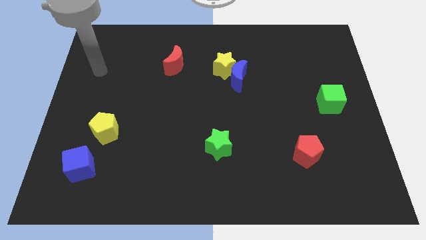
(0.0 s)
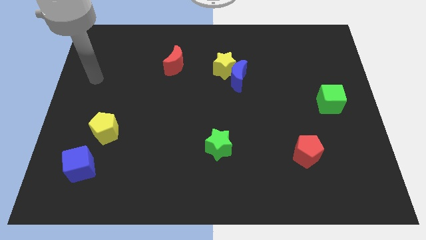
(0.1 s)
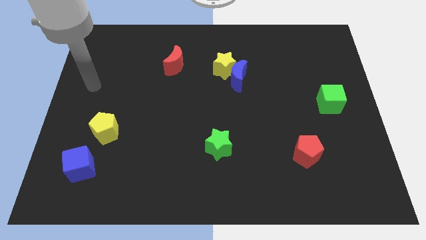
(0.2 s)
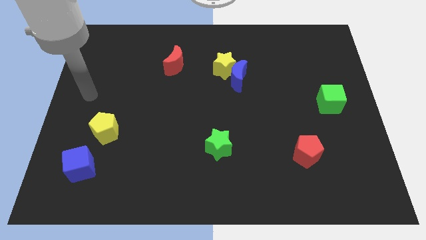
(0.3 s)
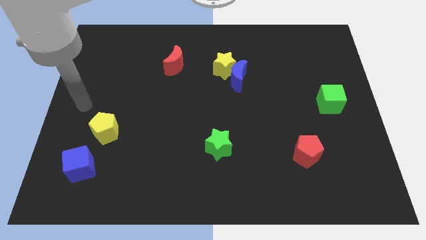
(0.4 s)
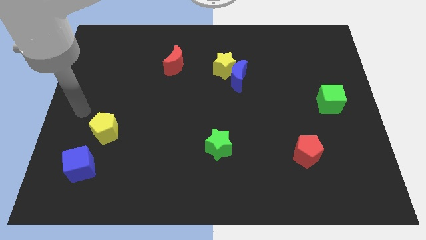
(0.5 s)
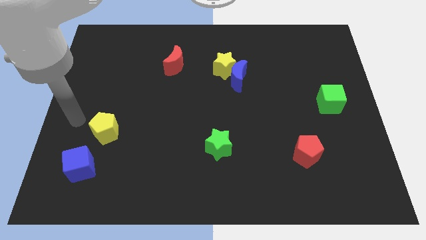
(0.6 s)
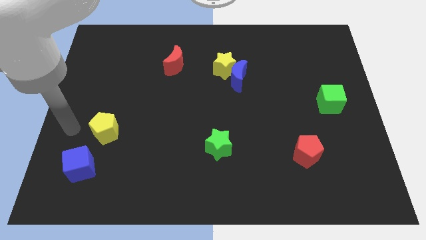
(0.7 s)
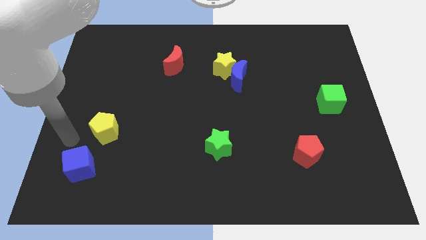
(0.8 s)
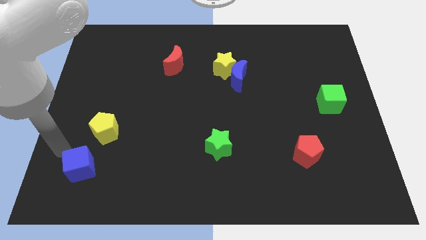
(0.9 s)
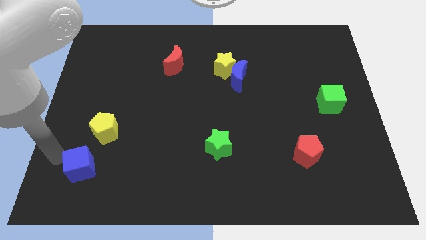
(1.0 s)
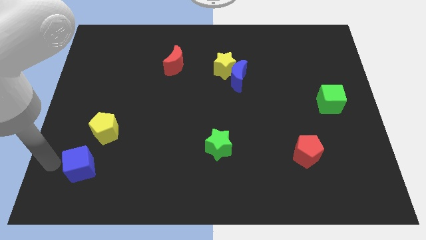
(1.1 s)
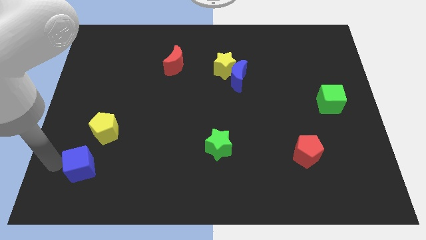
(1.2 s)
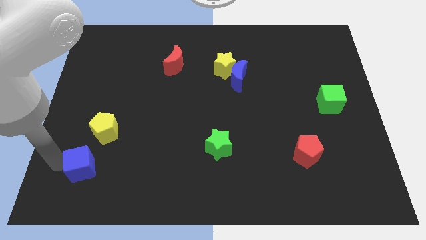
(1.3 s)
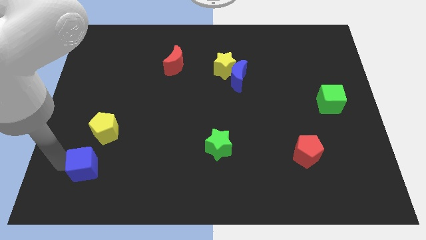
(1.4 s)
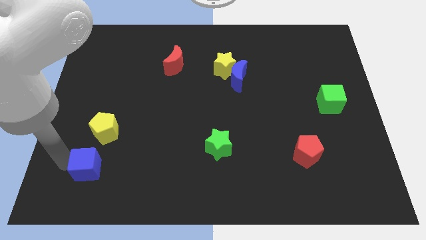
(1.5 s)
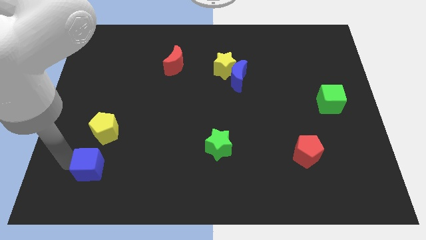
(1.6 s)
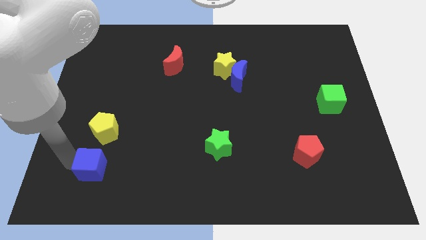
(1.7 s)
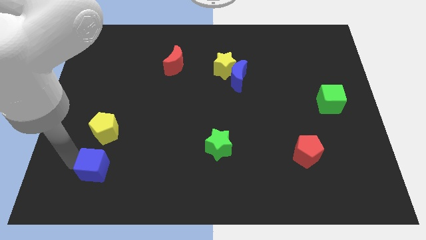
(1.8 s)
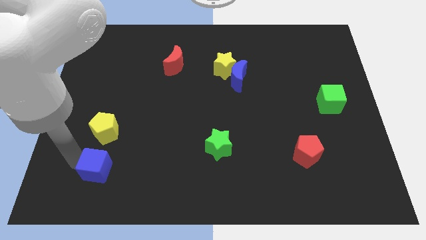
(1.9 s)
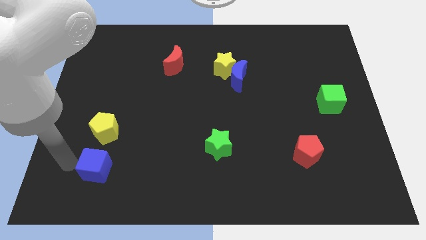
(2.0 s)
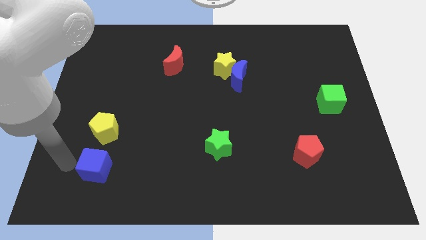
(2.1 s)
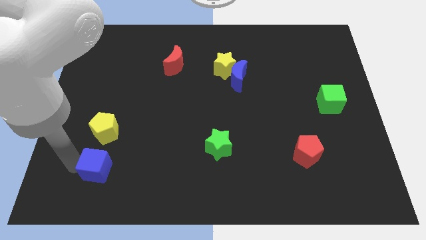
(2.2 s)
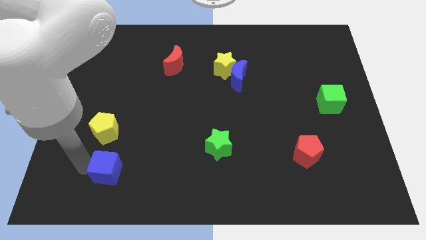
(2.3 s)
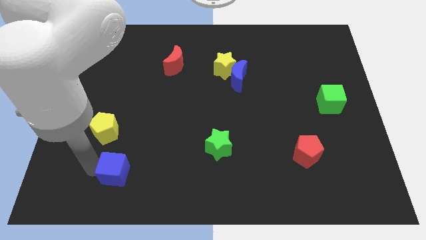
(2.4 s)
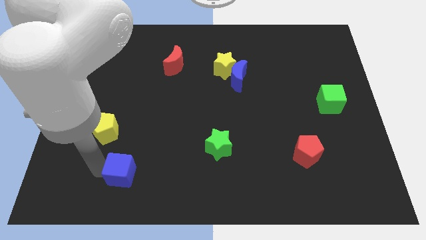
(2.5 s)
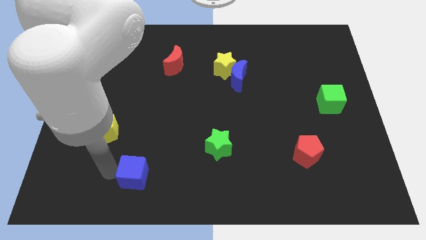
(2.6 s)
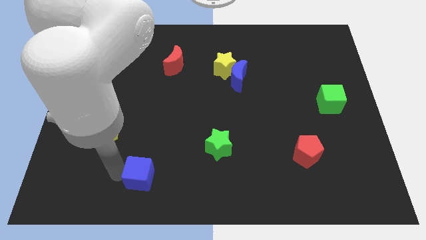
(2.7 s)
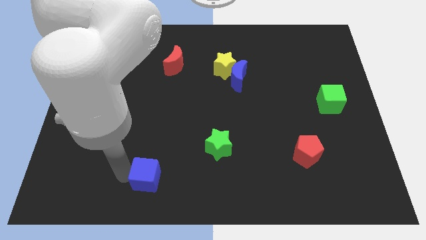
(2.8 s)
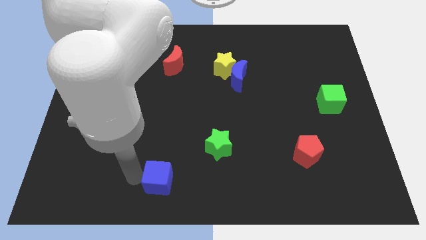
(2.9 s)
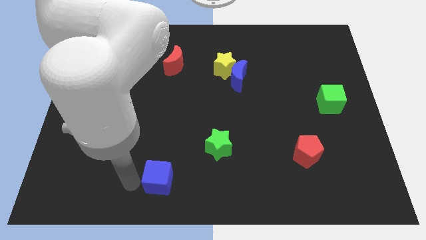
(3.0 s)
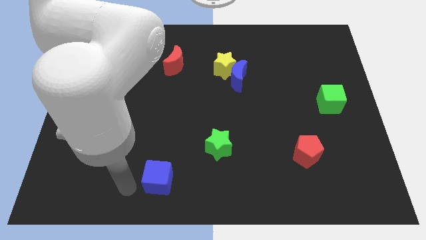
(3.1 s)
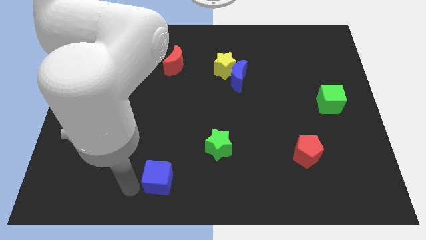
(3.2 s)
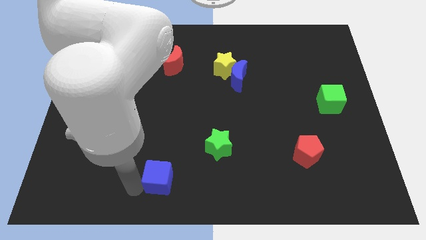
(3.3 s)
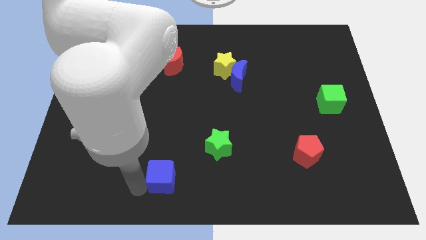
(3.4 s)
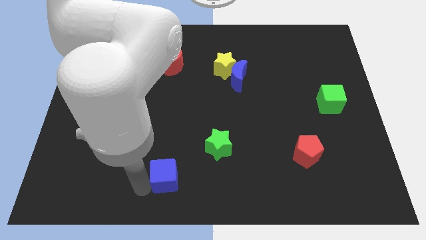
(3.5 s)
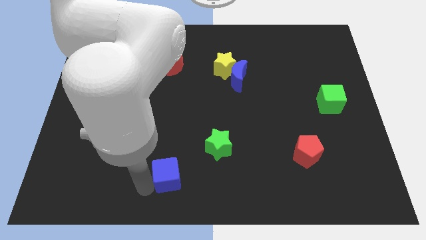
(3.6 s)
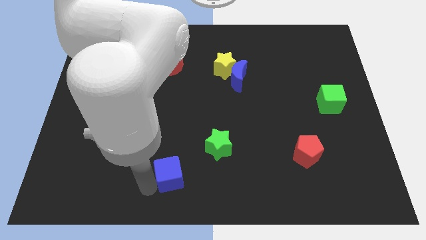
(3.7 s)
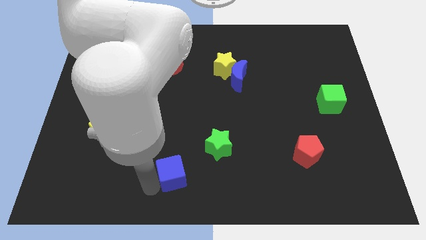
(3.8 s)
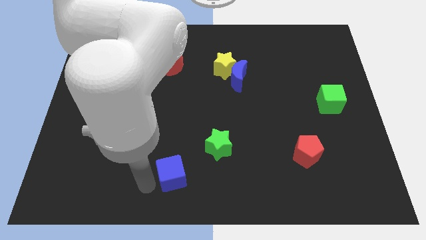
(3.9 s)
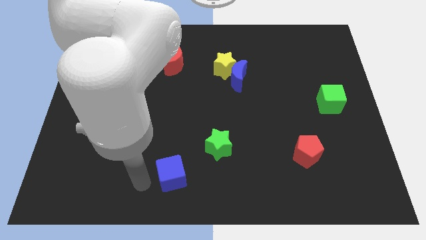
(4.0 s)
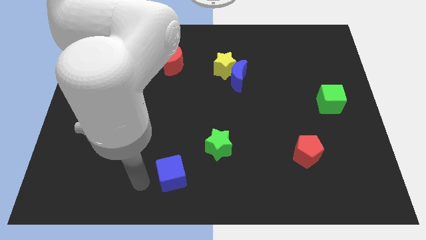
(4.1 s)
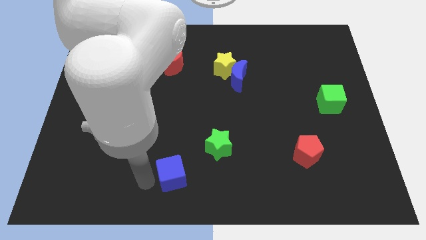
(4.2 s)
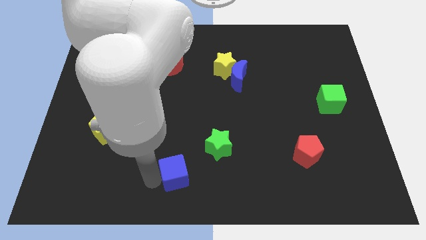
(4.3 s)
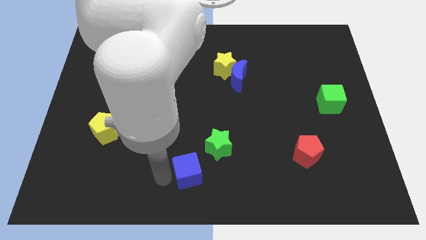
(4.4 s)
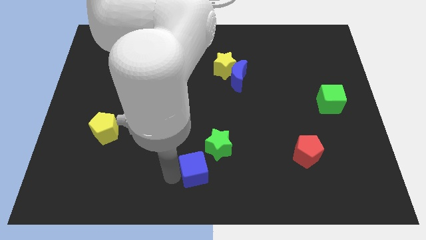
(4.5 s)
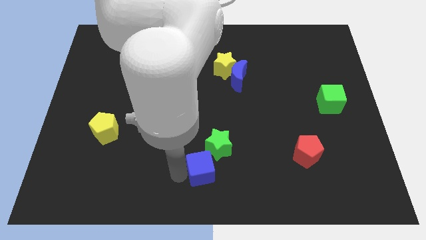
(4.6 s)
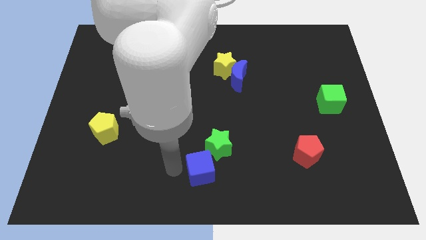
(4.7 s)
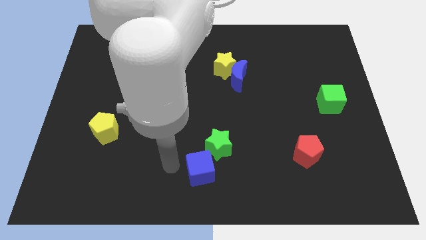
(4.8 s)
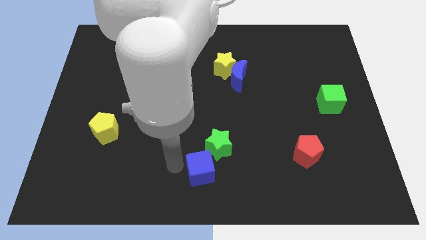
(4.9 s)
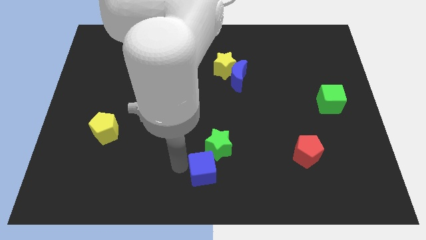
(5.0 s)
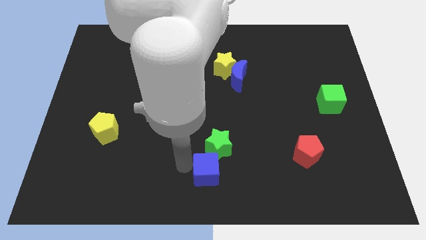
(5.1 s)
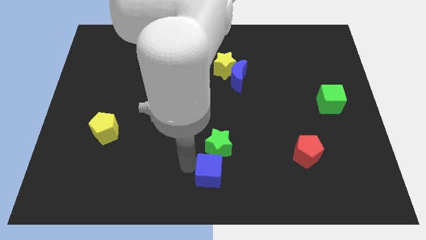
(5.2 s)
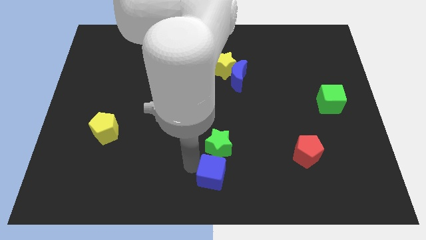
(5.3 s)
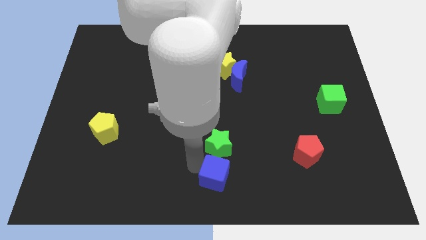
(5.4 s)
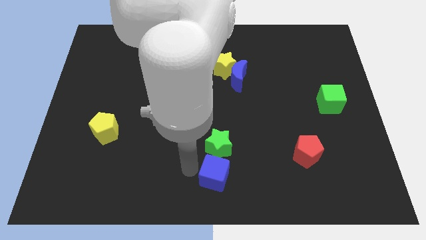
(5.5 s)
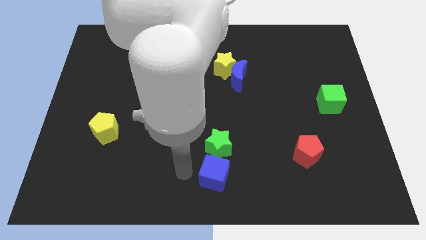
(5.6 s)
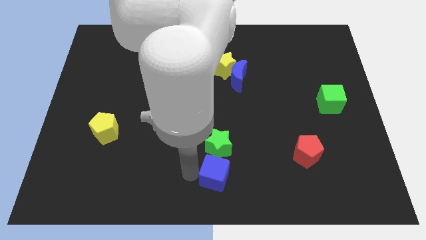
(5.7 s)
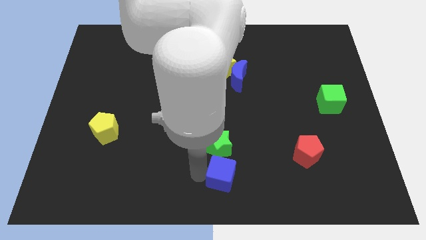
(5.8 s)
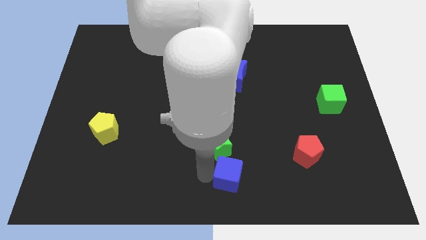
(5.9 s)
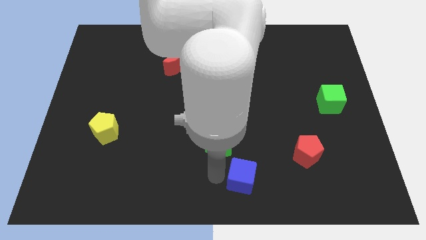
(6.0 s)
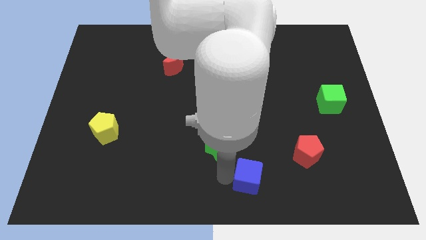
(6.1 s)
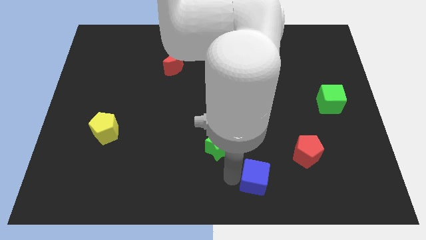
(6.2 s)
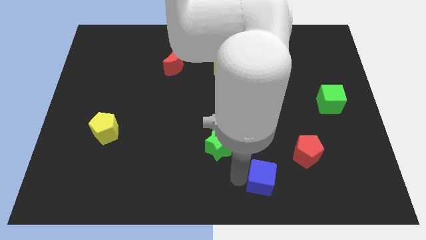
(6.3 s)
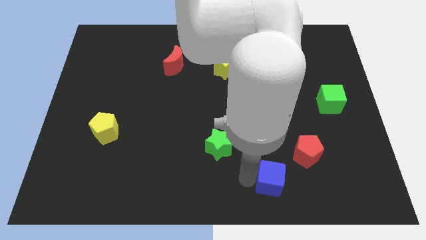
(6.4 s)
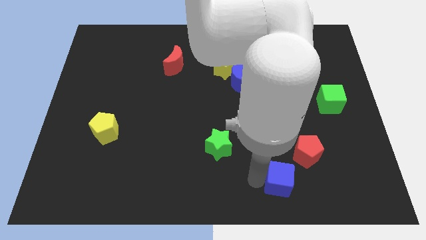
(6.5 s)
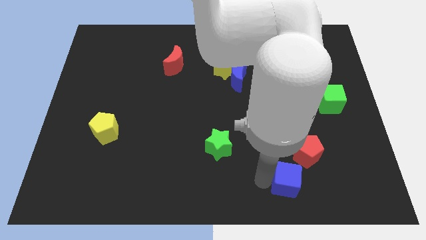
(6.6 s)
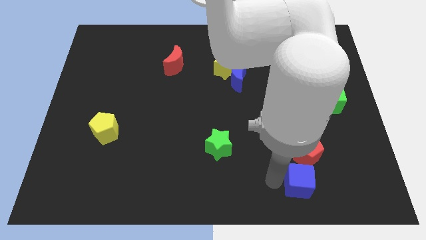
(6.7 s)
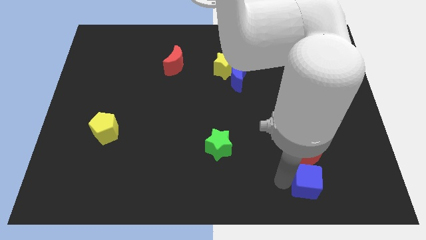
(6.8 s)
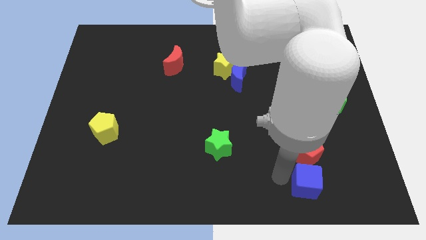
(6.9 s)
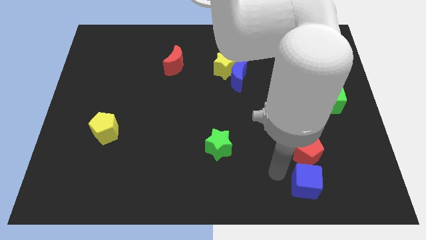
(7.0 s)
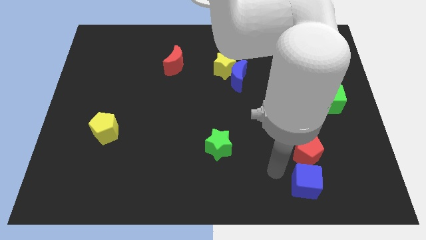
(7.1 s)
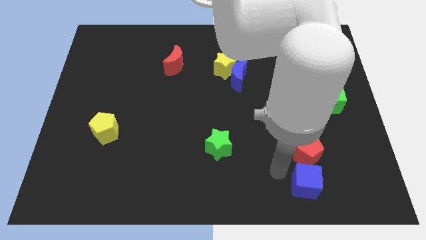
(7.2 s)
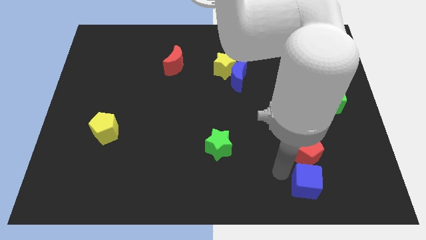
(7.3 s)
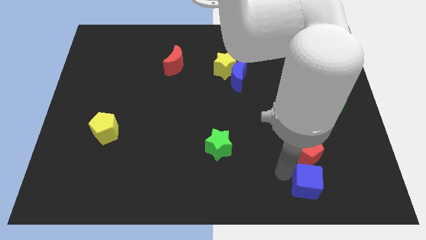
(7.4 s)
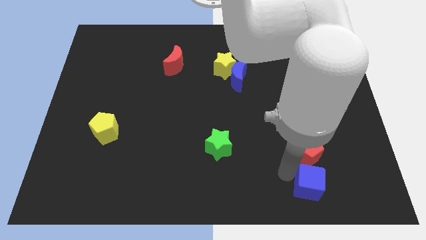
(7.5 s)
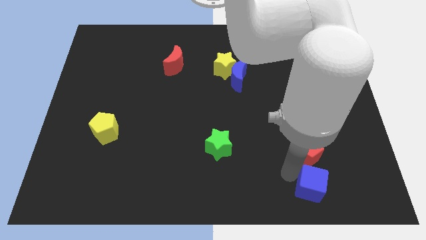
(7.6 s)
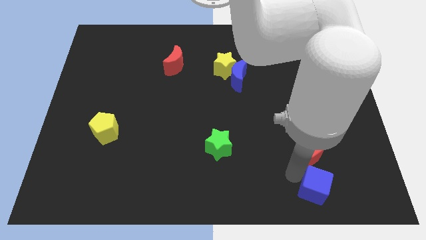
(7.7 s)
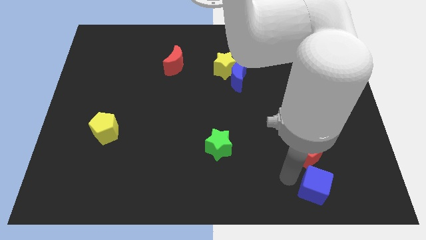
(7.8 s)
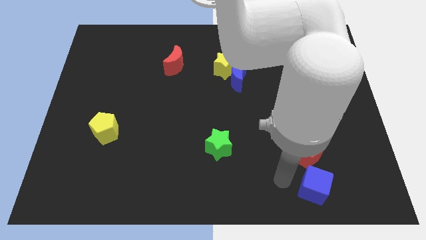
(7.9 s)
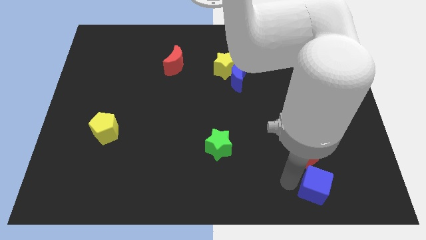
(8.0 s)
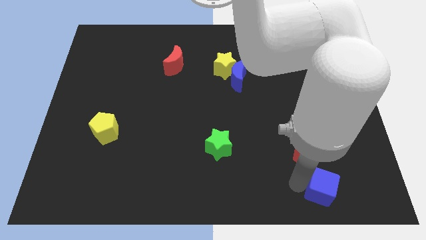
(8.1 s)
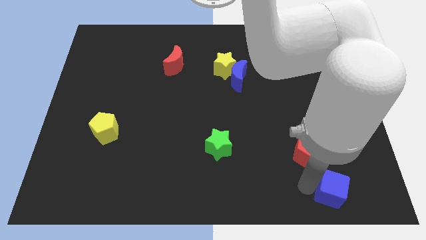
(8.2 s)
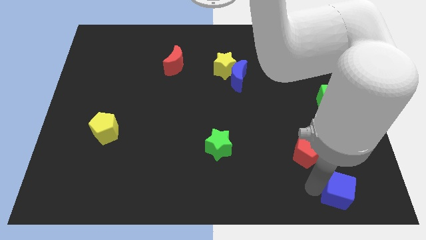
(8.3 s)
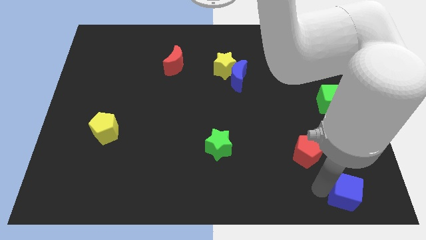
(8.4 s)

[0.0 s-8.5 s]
move the blue cube to the lower right corner
